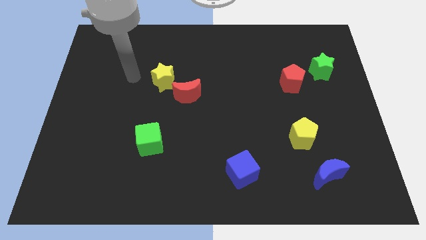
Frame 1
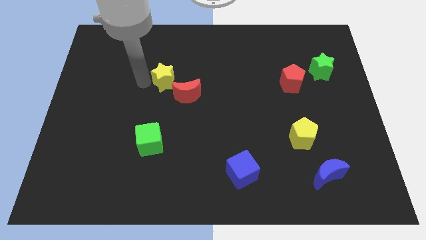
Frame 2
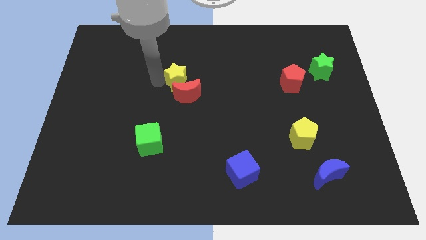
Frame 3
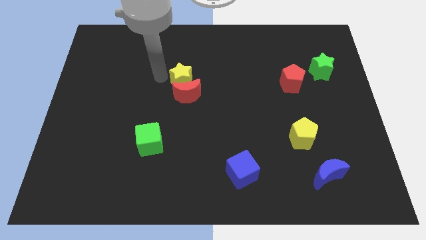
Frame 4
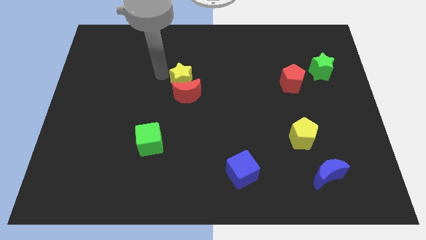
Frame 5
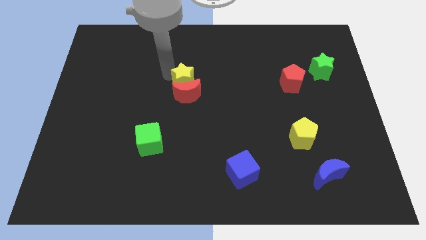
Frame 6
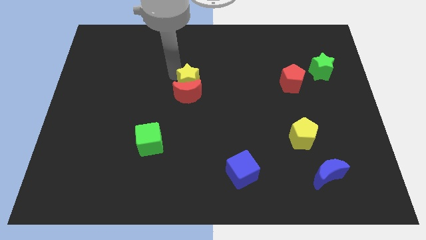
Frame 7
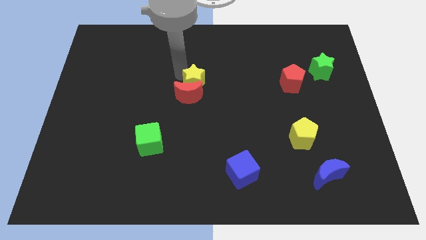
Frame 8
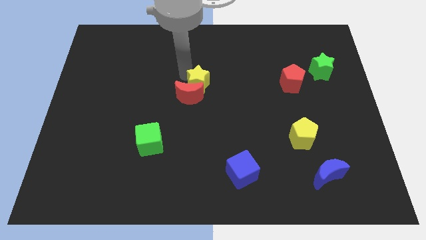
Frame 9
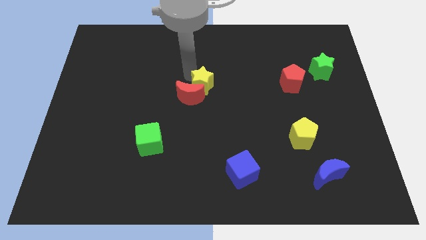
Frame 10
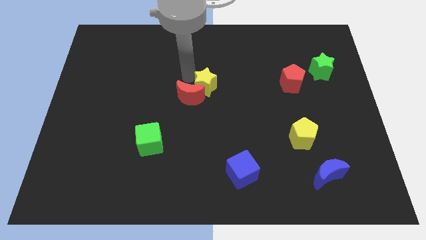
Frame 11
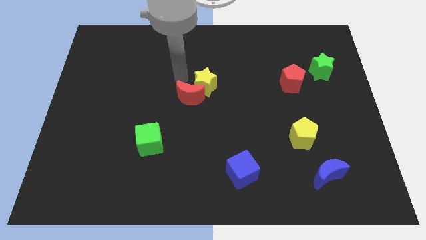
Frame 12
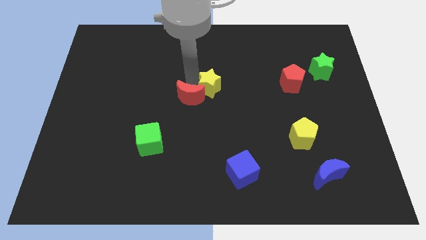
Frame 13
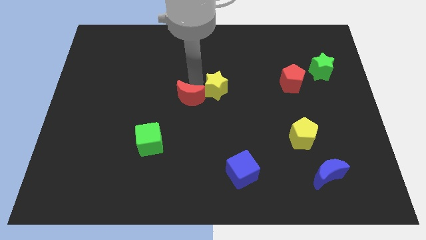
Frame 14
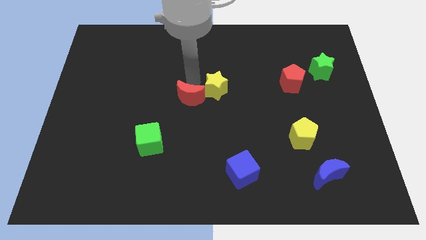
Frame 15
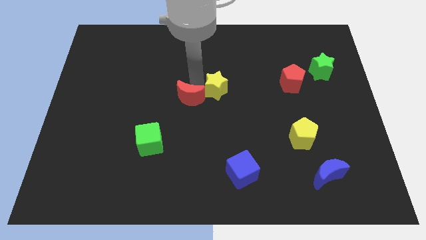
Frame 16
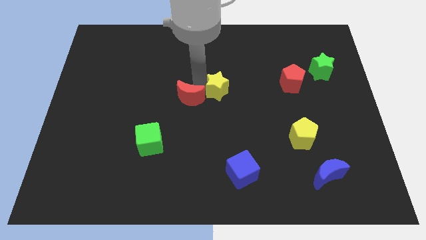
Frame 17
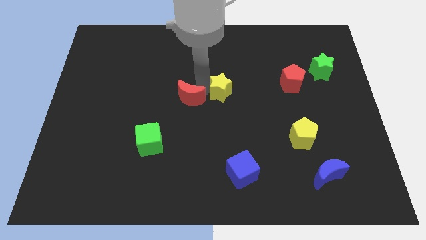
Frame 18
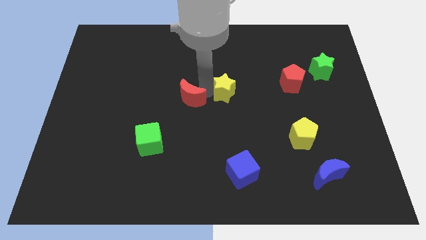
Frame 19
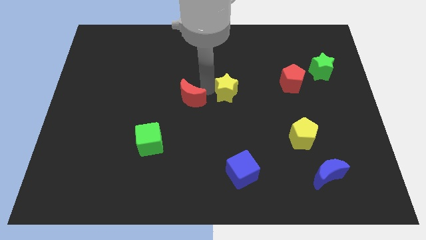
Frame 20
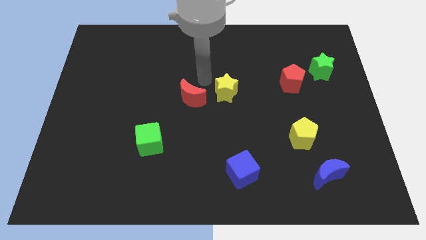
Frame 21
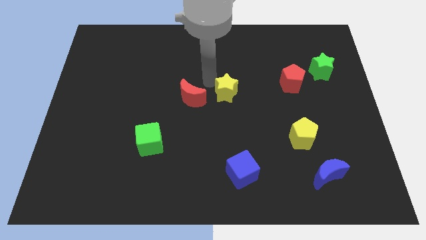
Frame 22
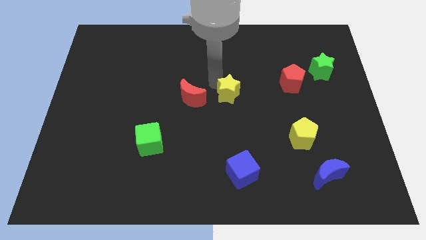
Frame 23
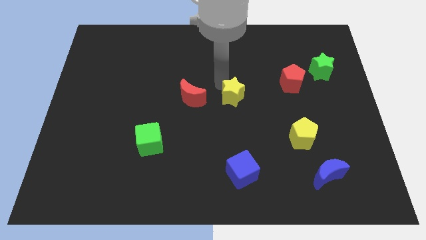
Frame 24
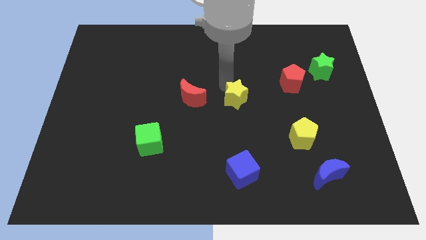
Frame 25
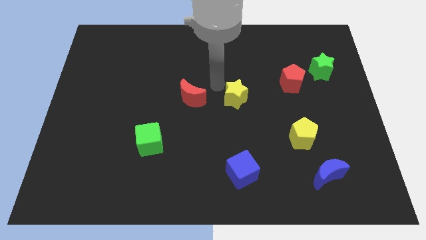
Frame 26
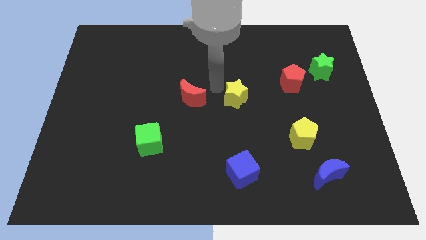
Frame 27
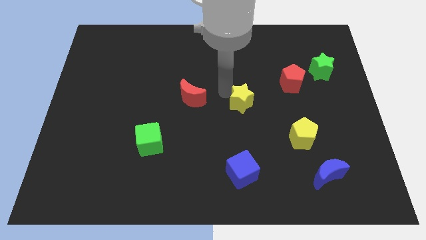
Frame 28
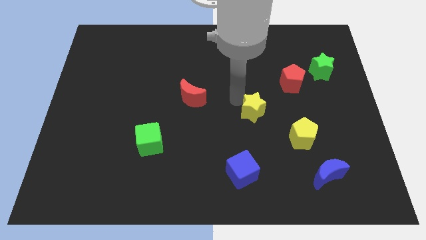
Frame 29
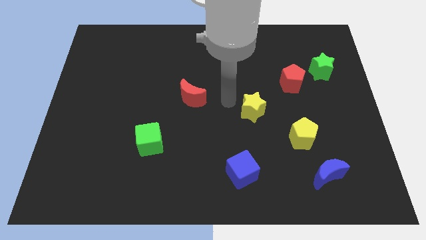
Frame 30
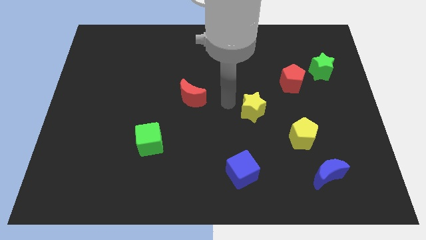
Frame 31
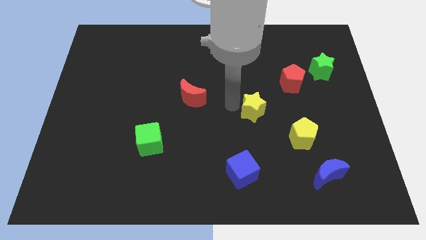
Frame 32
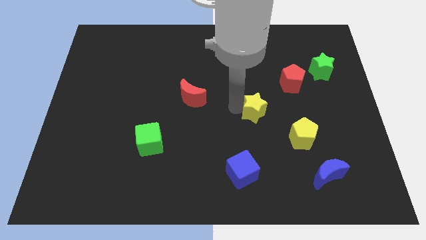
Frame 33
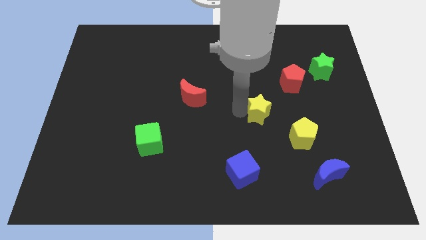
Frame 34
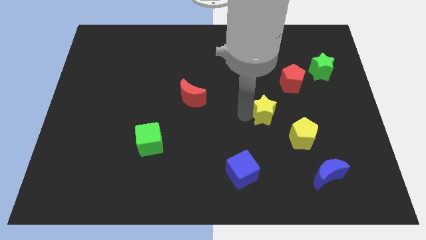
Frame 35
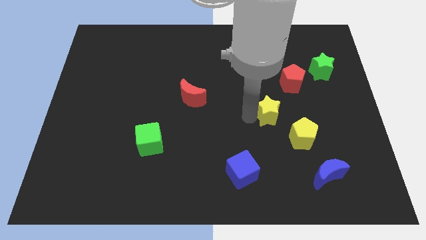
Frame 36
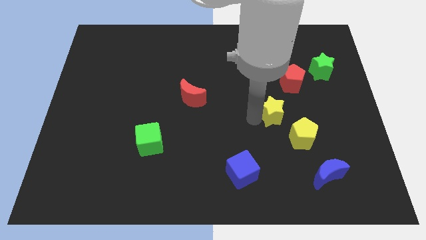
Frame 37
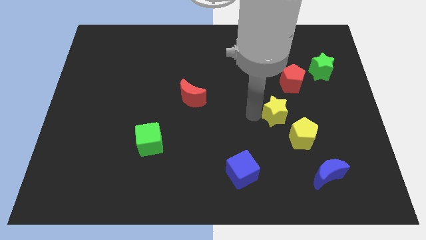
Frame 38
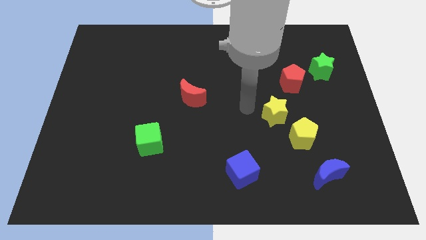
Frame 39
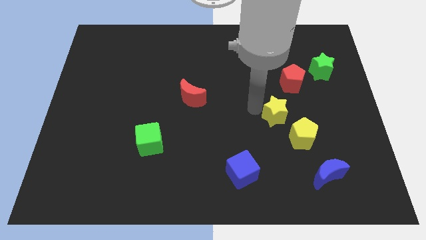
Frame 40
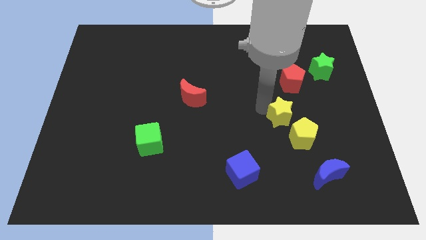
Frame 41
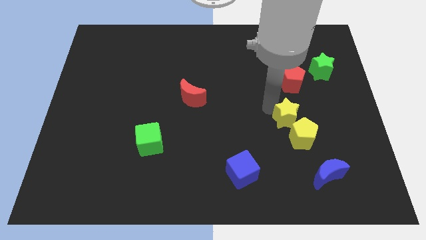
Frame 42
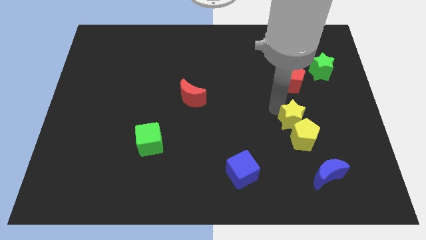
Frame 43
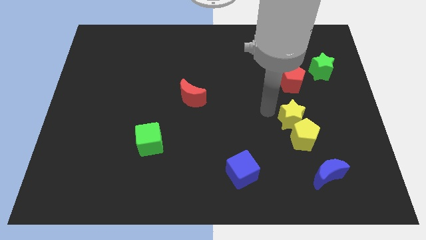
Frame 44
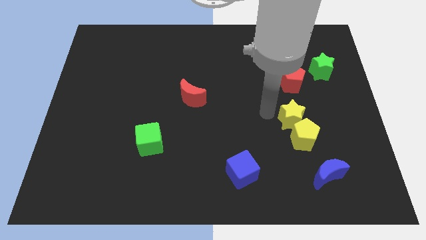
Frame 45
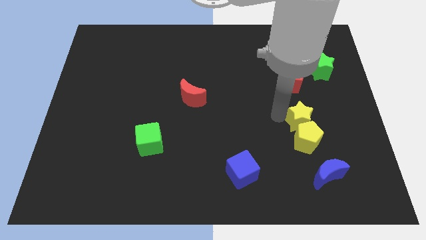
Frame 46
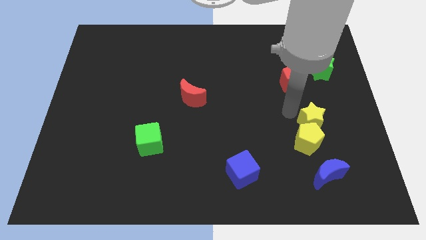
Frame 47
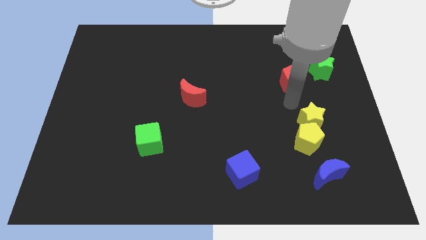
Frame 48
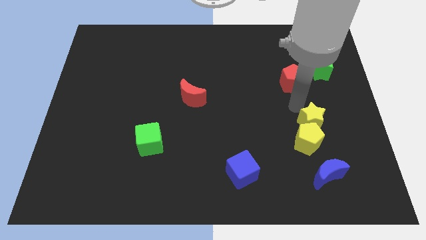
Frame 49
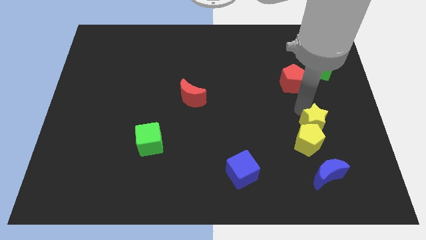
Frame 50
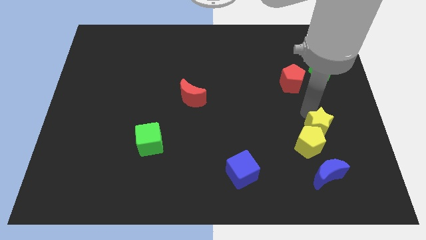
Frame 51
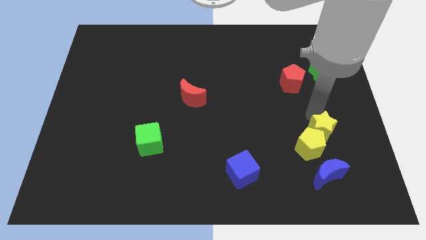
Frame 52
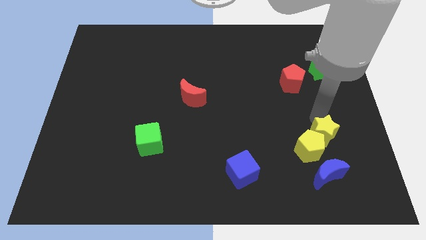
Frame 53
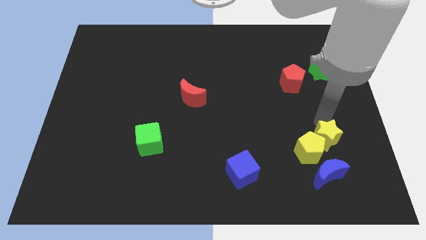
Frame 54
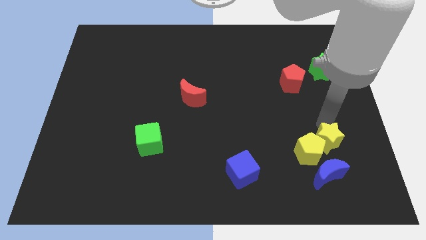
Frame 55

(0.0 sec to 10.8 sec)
put the yellow star to the top right side of the blue moon

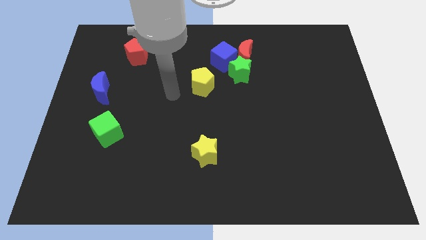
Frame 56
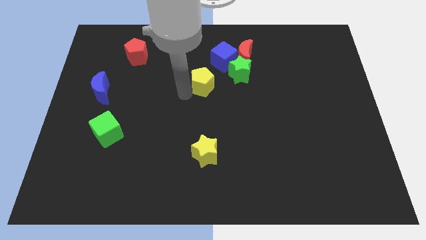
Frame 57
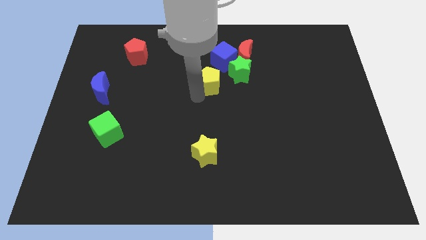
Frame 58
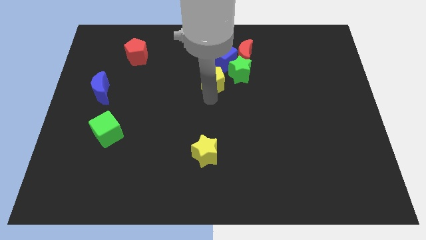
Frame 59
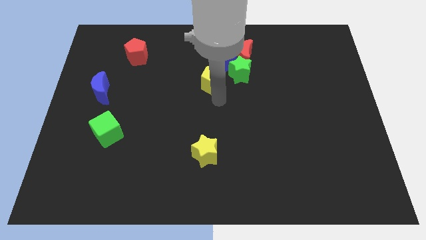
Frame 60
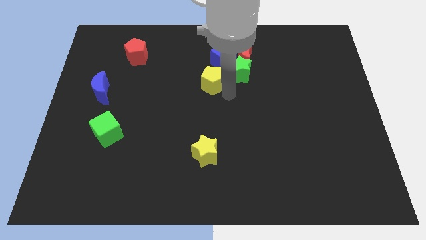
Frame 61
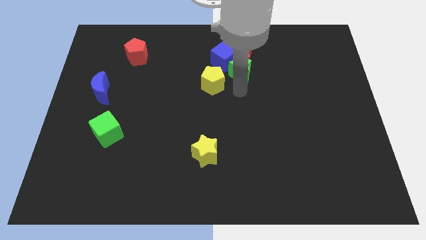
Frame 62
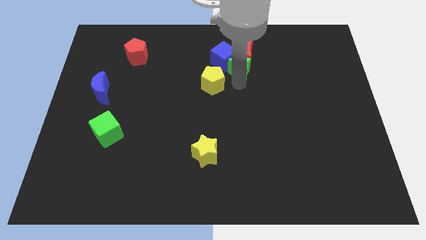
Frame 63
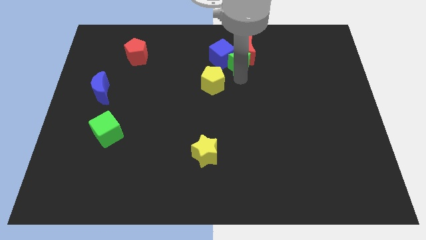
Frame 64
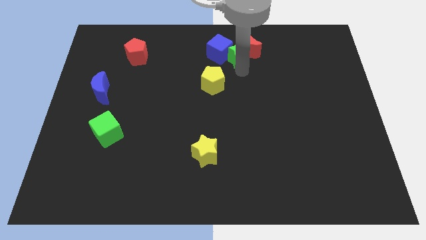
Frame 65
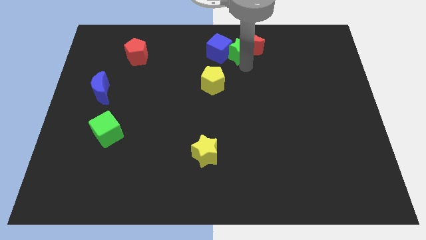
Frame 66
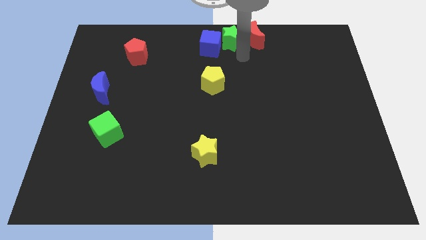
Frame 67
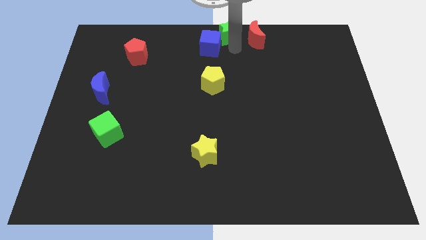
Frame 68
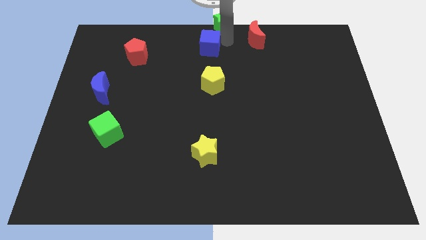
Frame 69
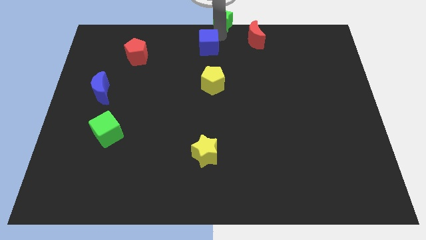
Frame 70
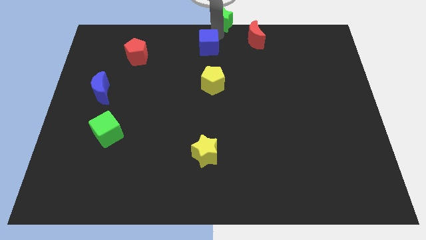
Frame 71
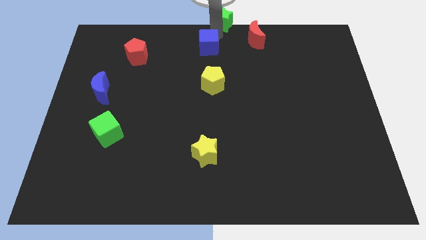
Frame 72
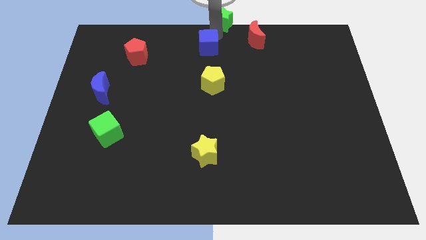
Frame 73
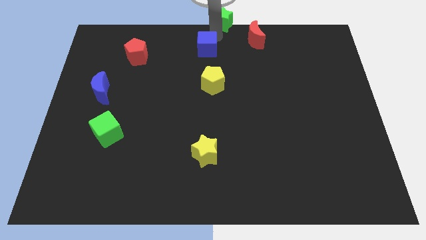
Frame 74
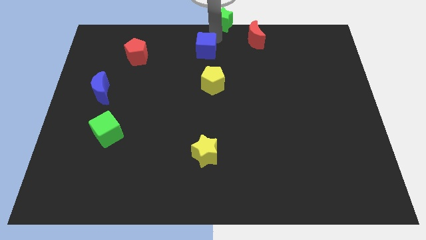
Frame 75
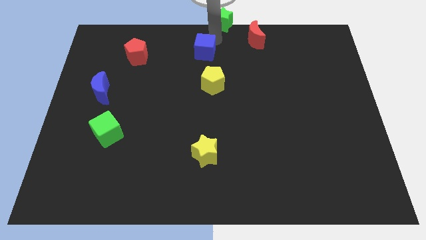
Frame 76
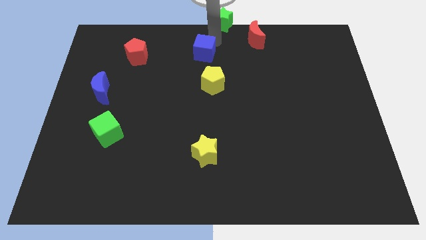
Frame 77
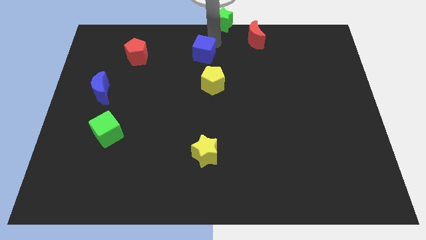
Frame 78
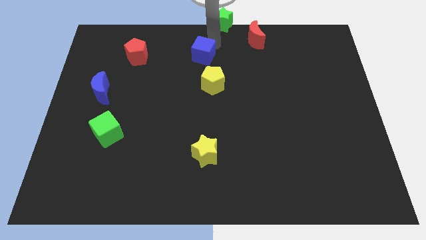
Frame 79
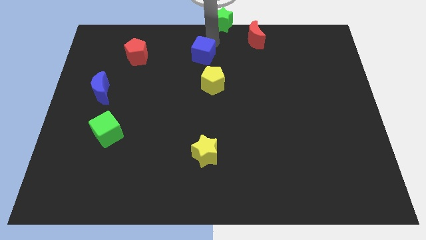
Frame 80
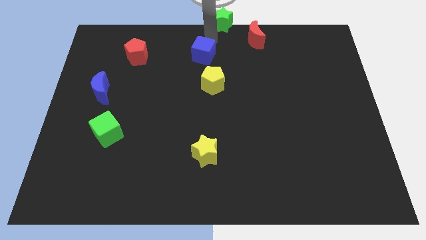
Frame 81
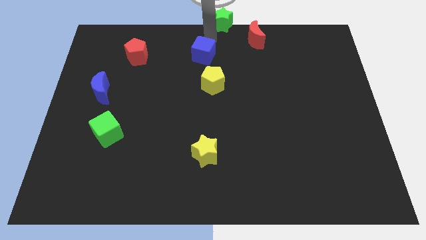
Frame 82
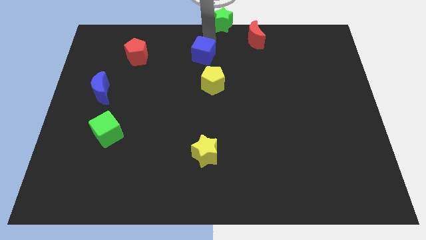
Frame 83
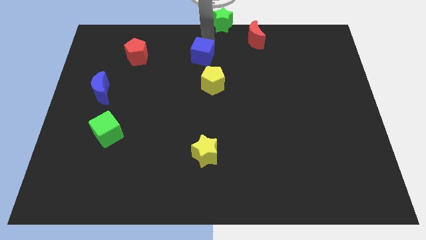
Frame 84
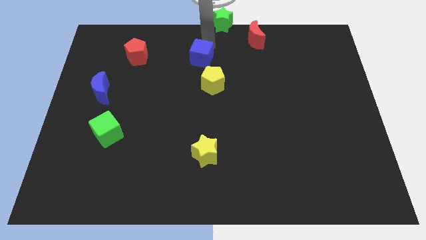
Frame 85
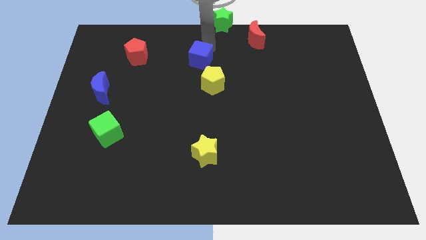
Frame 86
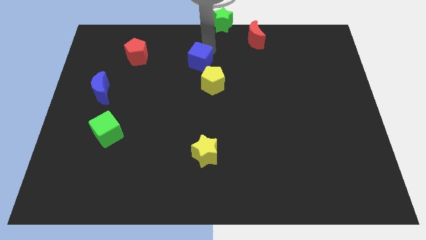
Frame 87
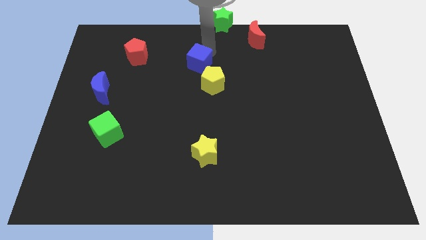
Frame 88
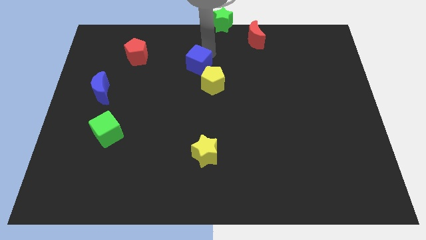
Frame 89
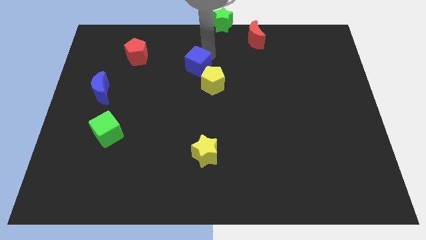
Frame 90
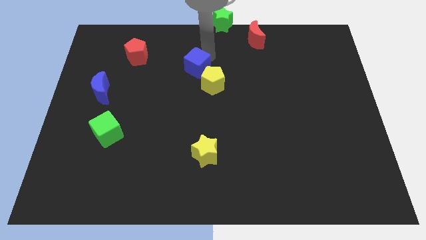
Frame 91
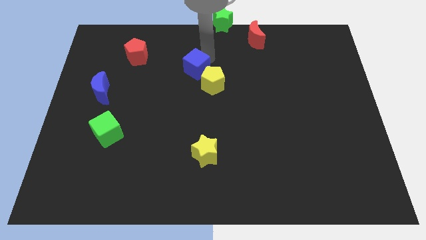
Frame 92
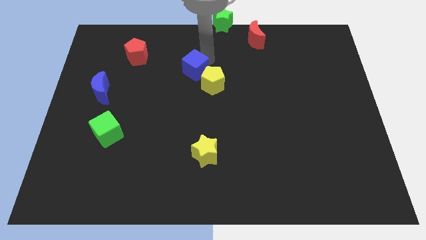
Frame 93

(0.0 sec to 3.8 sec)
move the blue cube to the left side of the yellow pentagon
